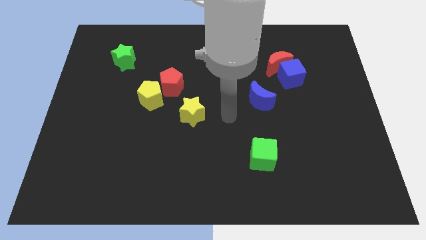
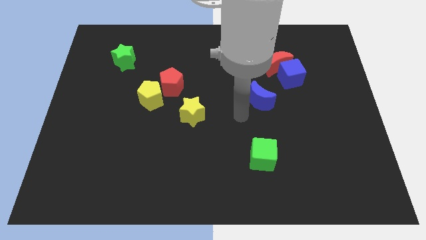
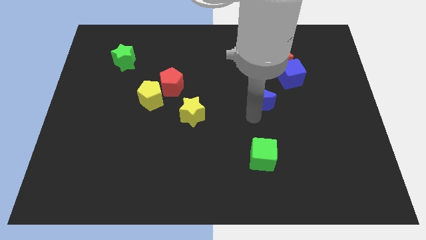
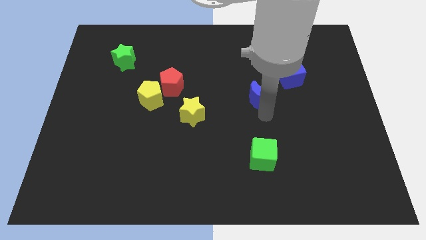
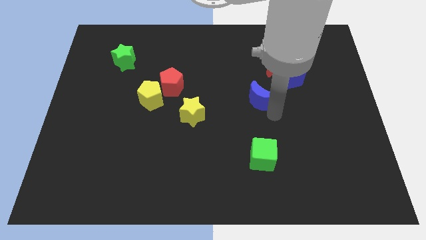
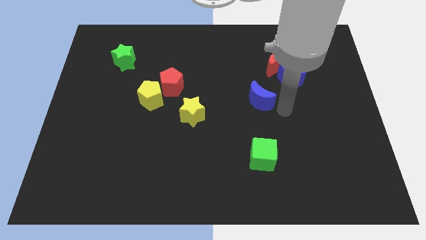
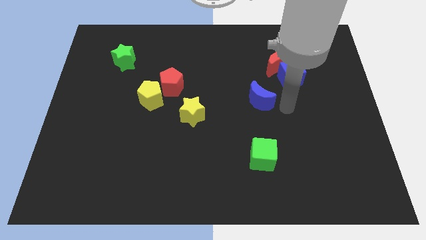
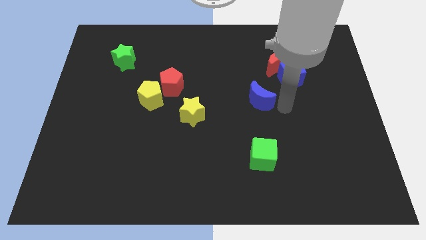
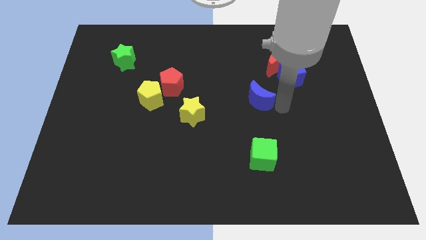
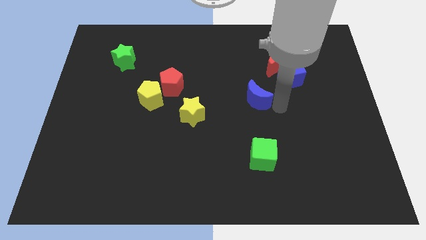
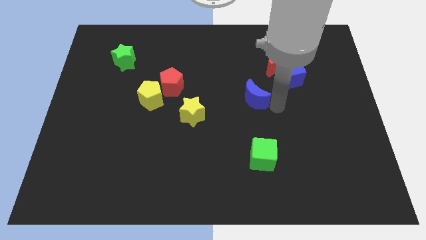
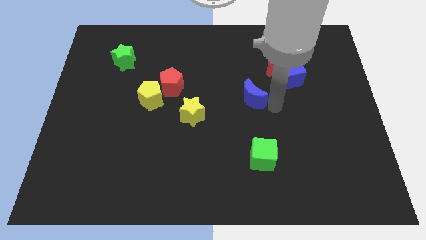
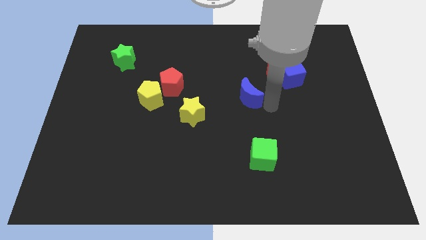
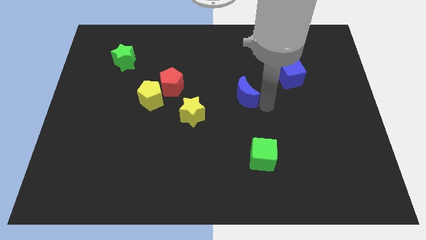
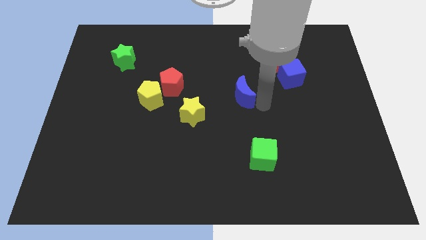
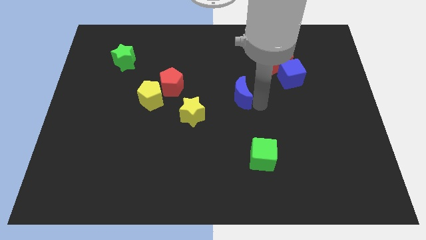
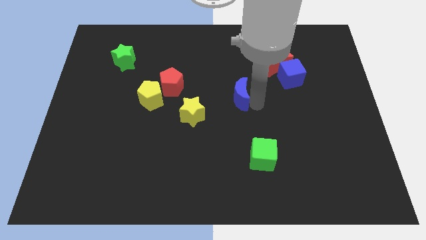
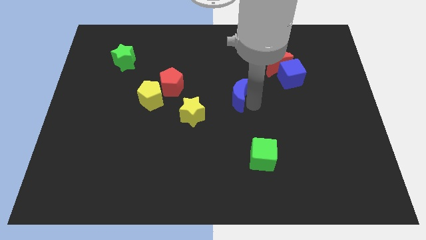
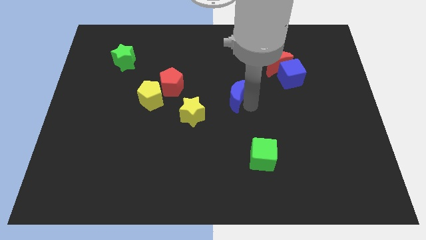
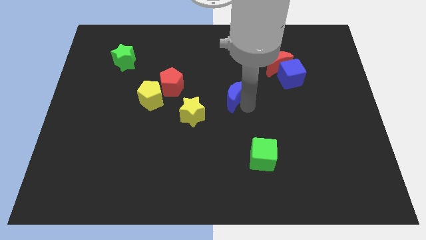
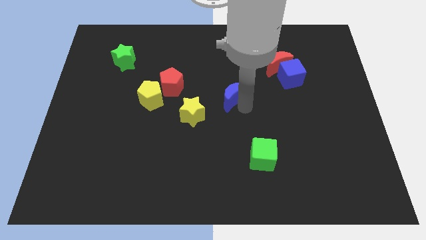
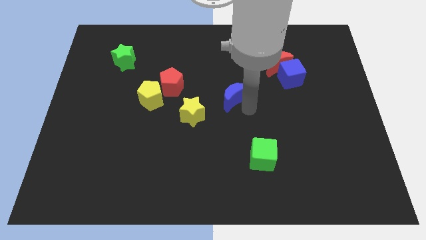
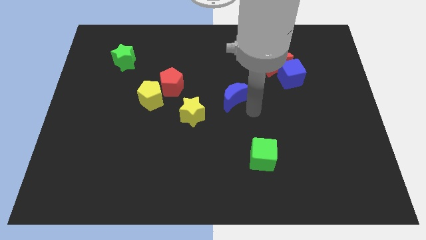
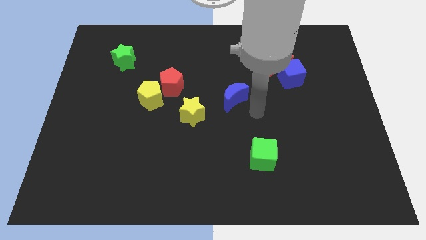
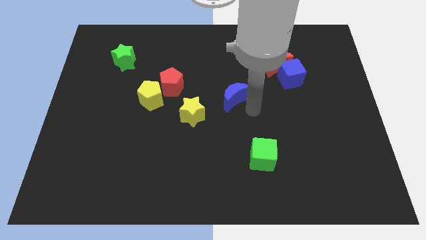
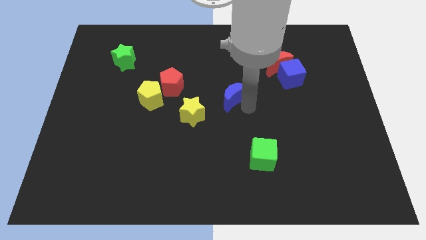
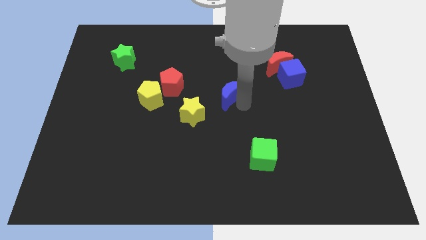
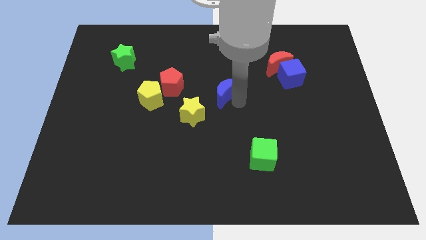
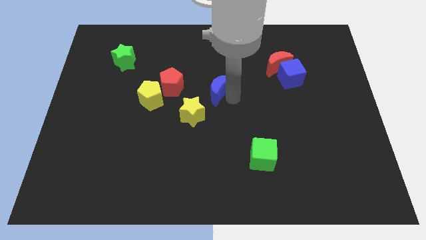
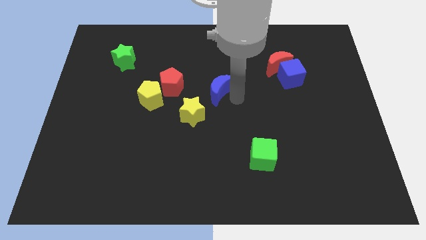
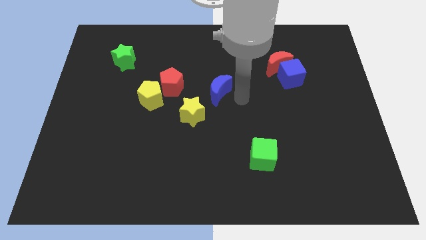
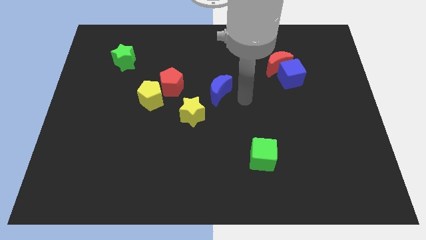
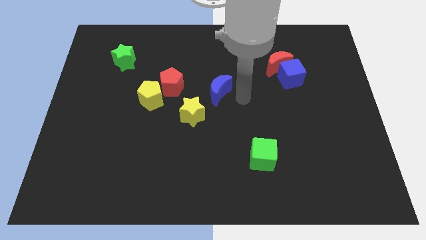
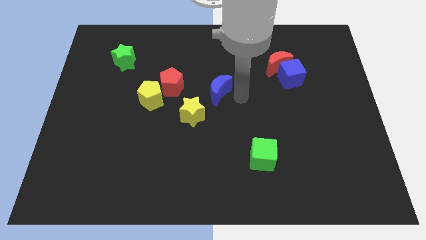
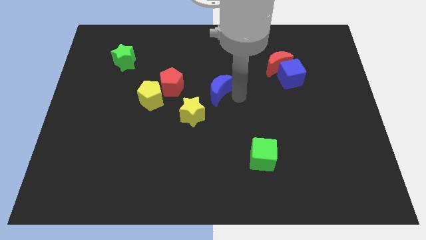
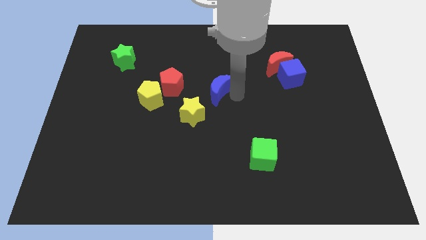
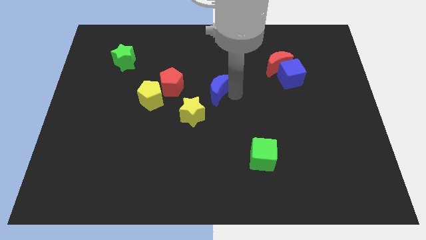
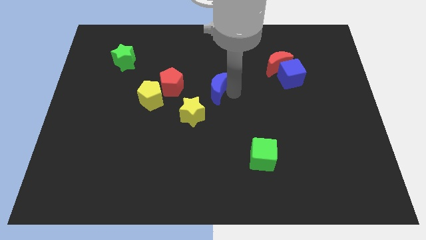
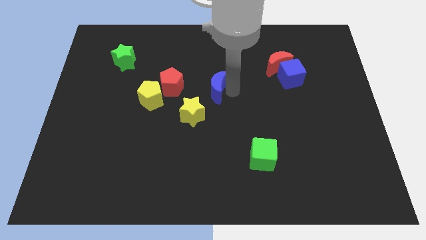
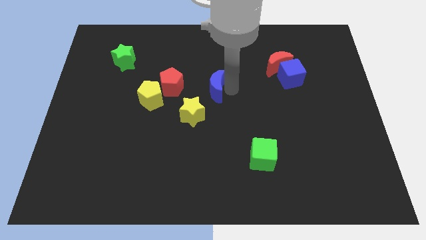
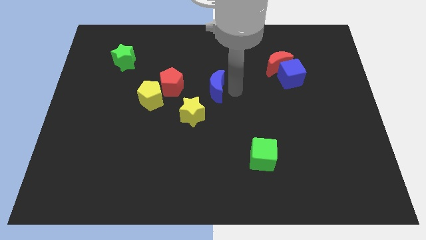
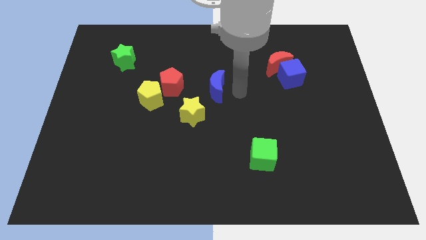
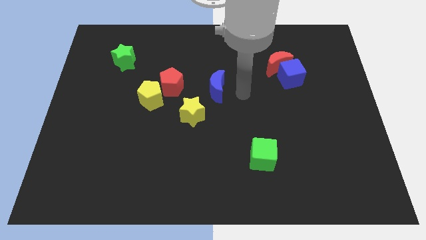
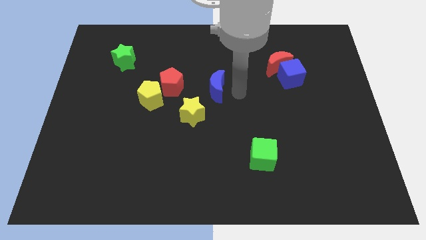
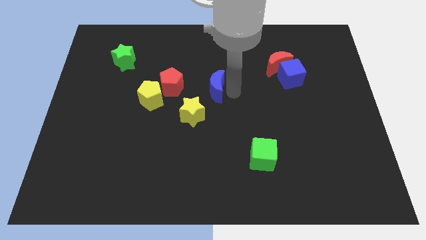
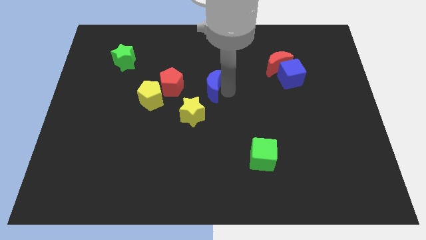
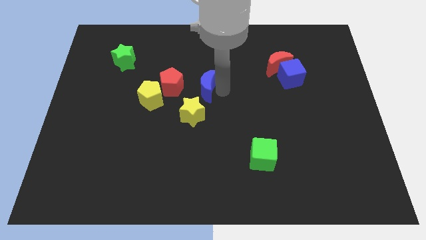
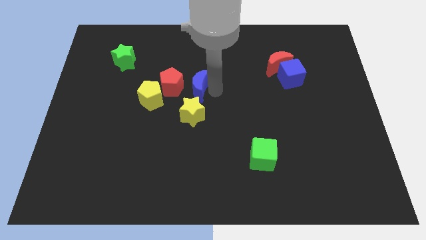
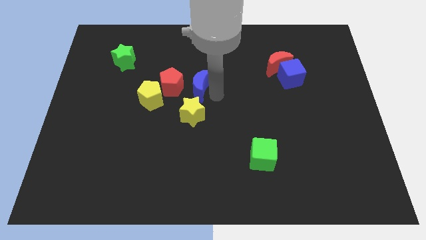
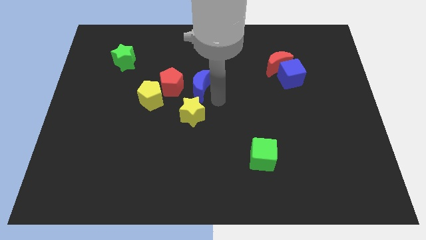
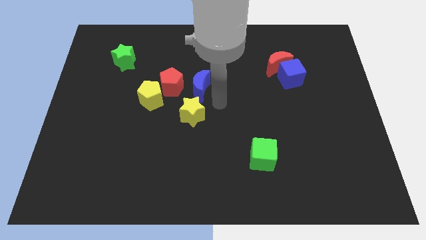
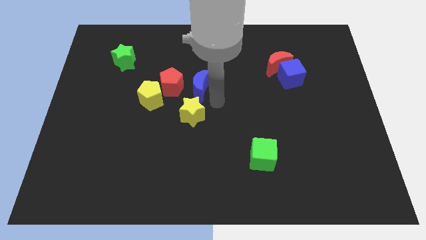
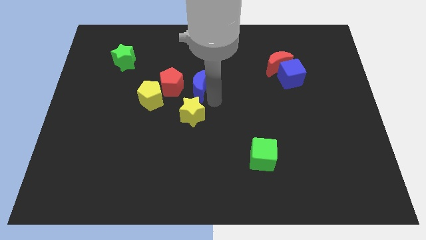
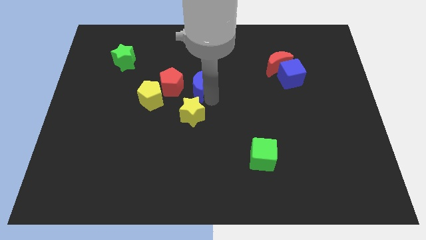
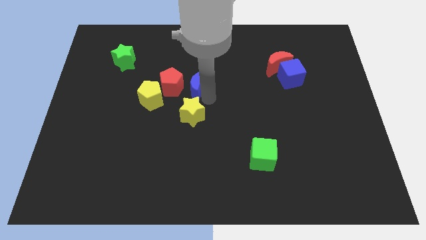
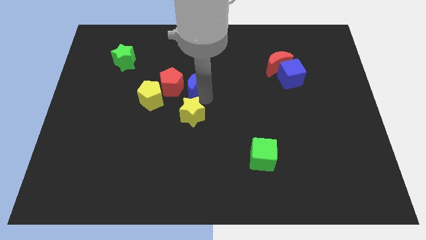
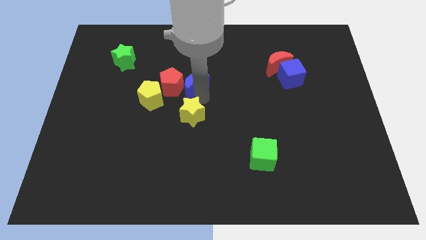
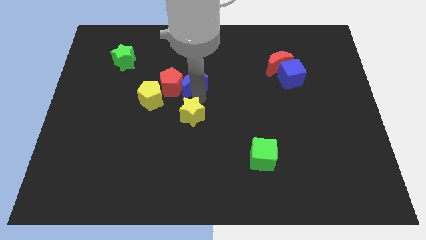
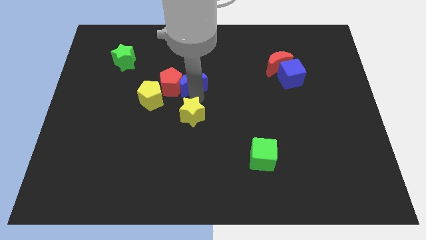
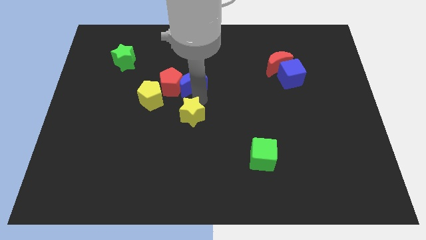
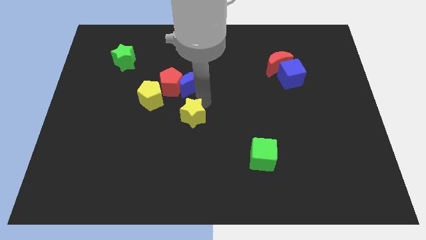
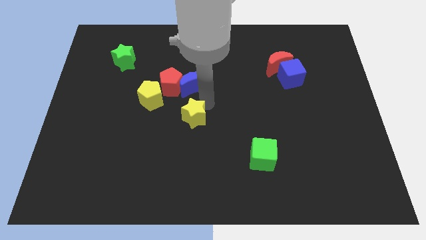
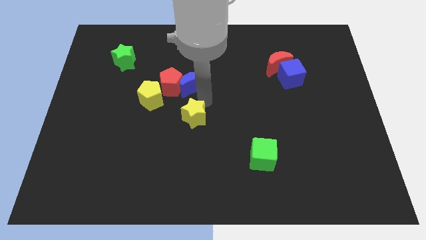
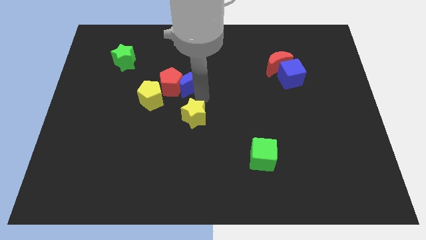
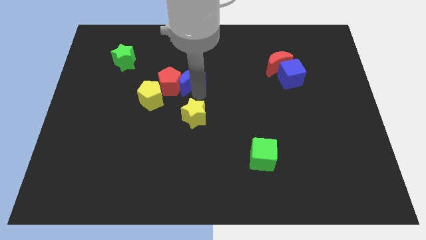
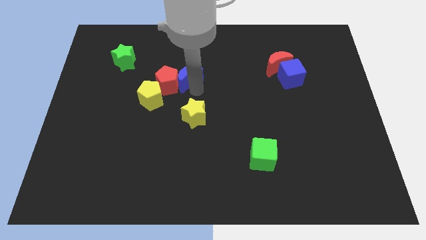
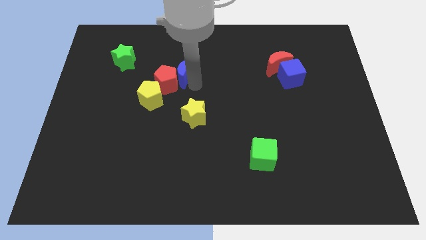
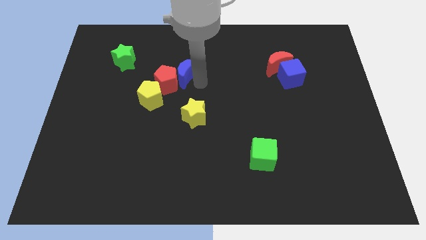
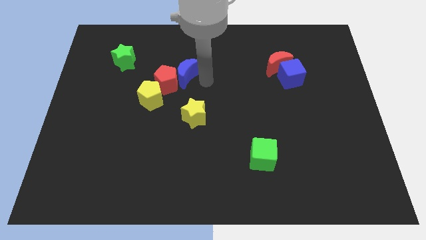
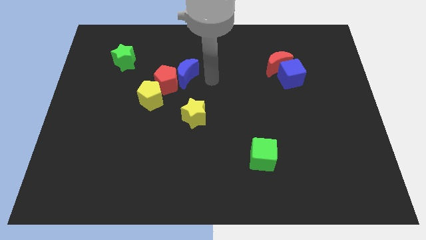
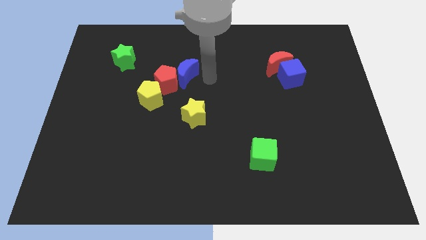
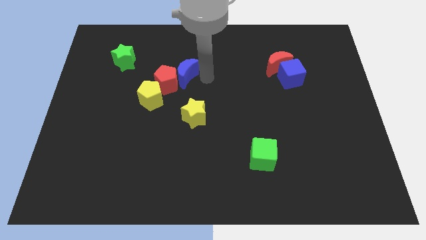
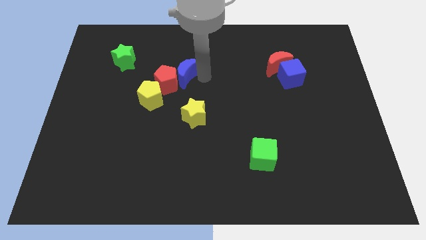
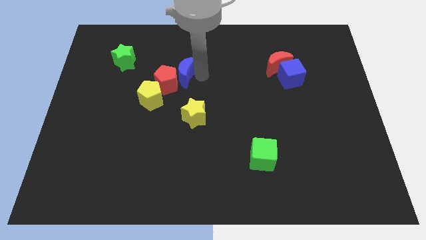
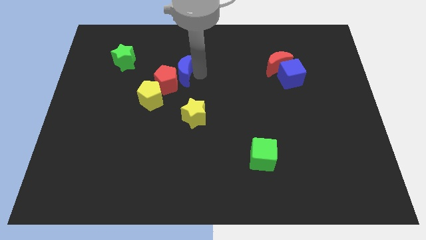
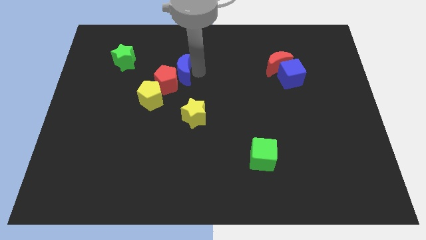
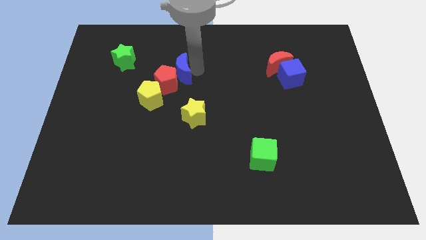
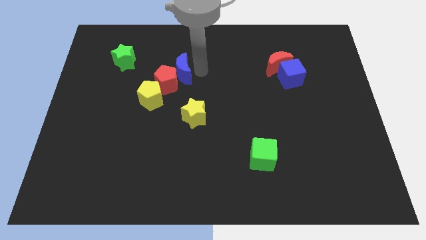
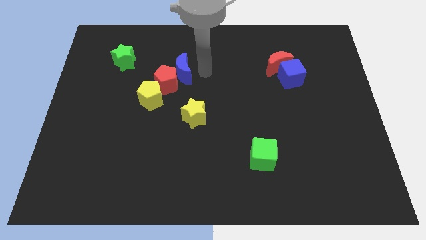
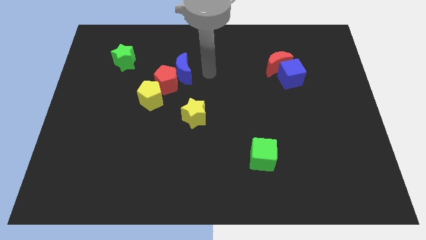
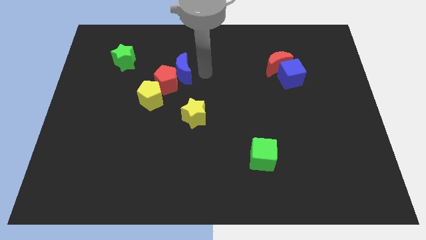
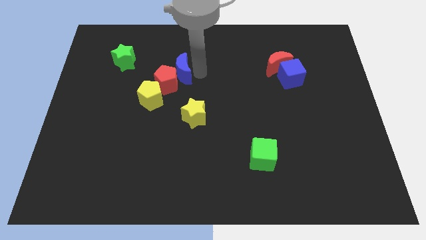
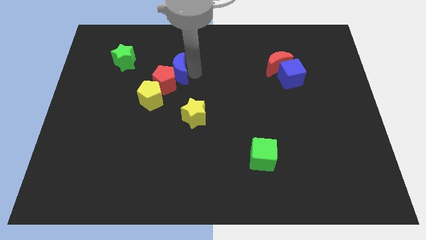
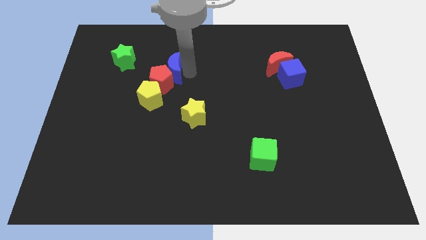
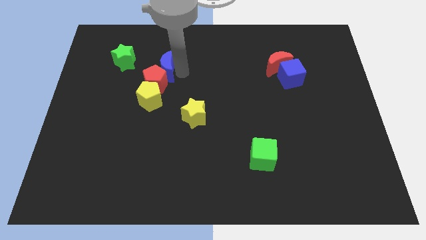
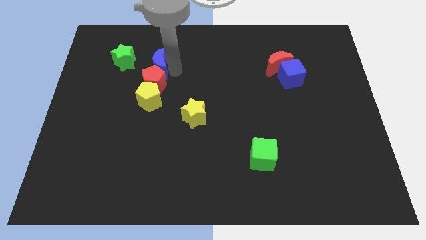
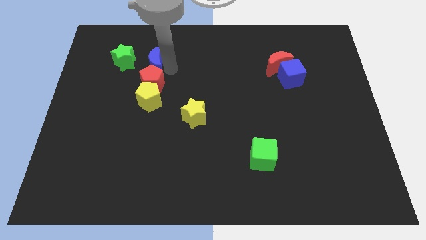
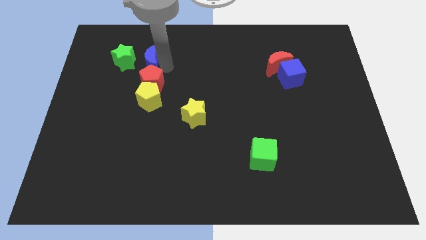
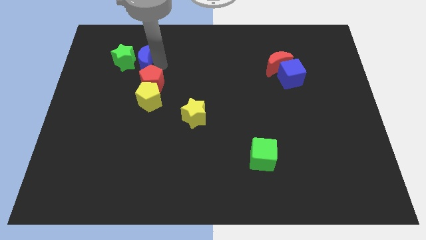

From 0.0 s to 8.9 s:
put the blue moon towards the green star
